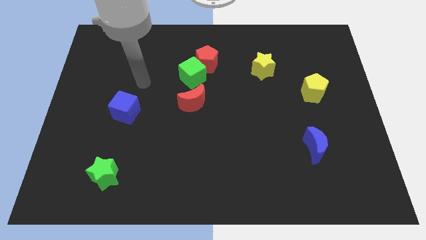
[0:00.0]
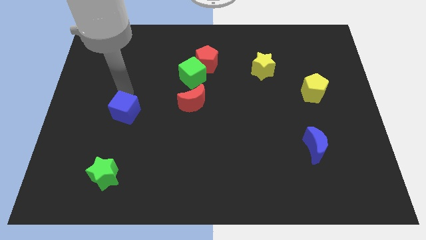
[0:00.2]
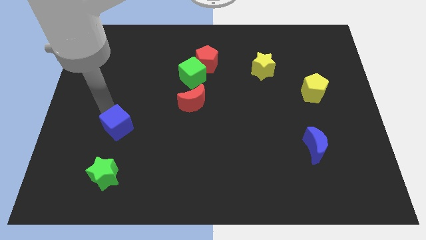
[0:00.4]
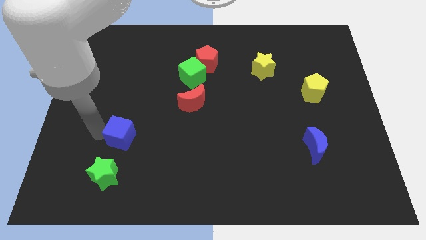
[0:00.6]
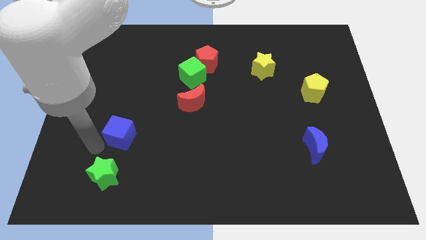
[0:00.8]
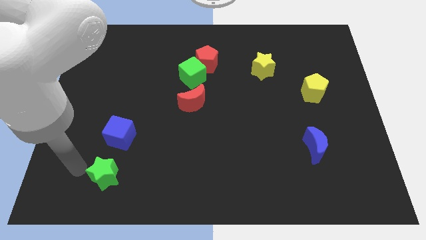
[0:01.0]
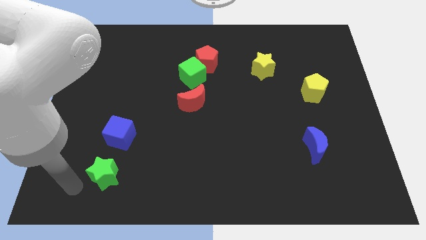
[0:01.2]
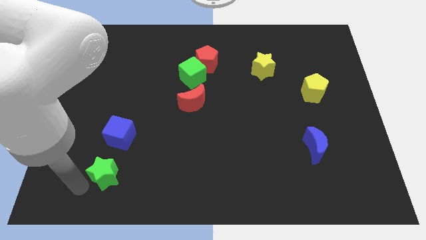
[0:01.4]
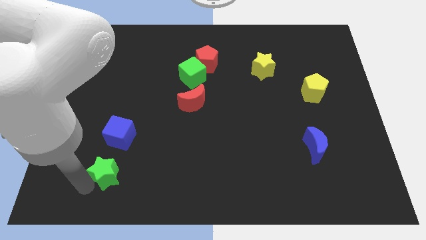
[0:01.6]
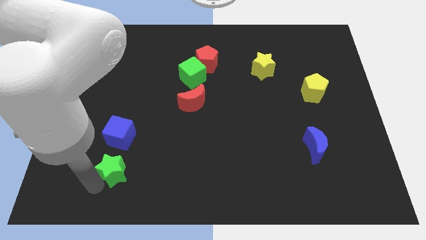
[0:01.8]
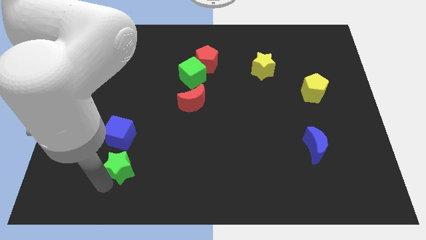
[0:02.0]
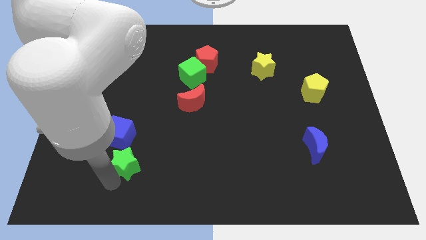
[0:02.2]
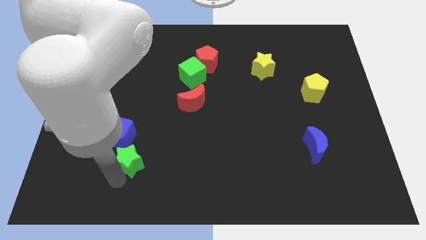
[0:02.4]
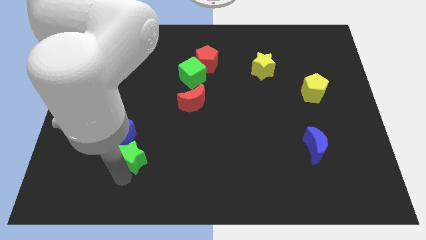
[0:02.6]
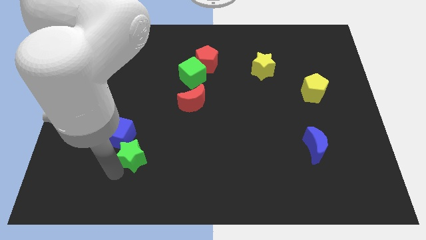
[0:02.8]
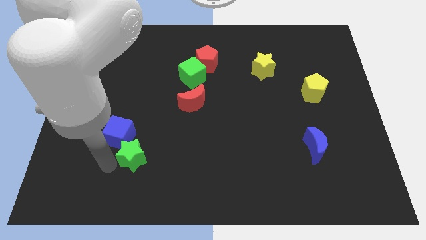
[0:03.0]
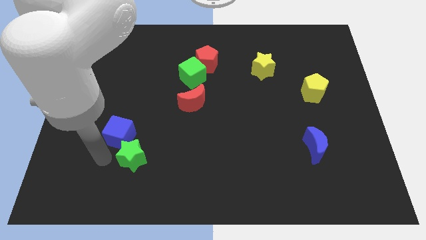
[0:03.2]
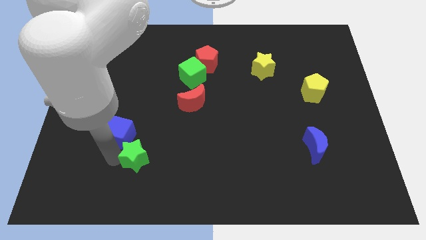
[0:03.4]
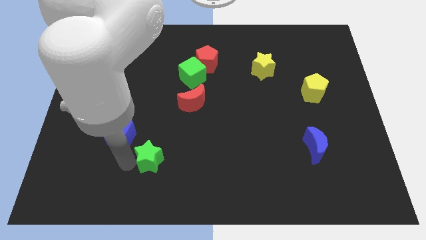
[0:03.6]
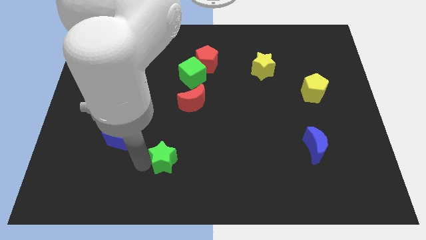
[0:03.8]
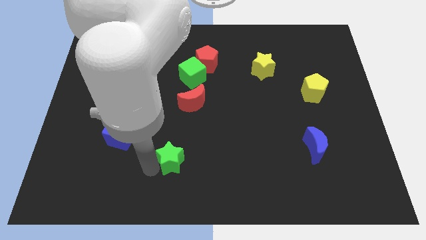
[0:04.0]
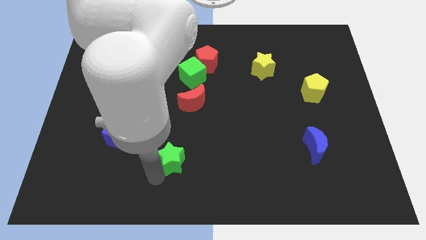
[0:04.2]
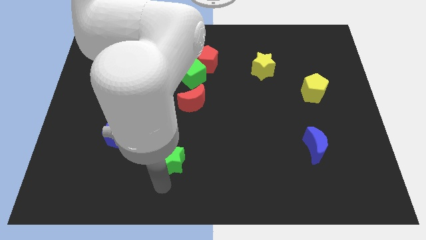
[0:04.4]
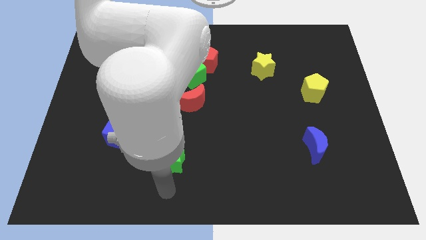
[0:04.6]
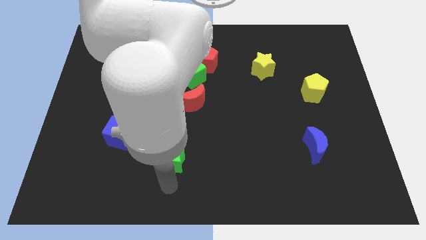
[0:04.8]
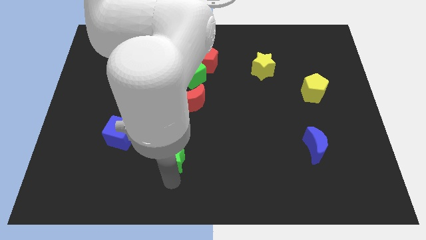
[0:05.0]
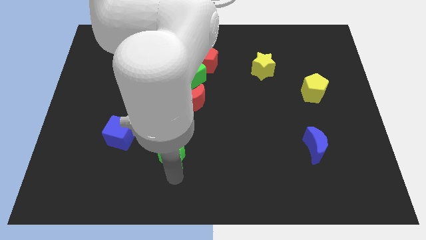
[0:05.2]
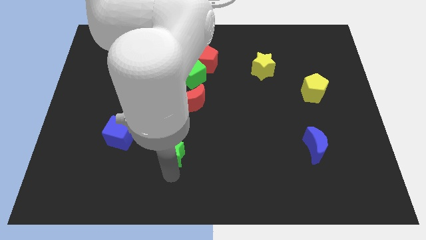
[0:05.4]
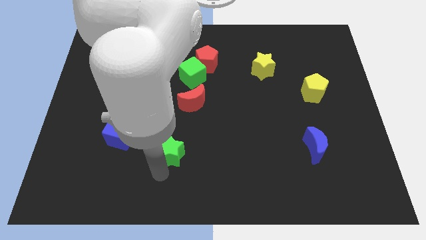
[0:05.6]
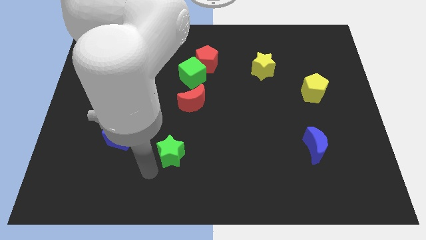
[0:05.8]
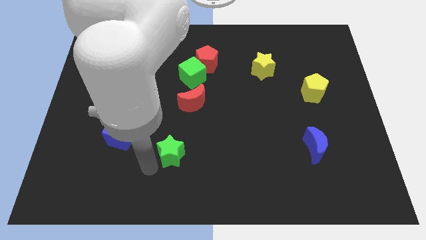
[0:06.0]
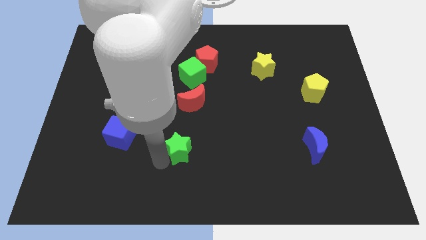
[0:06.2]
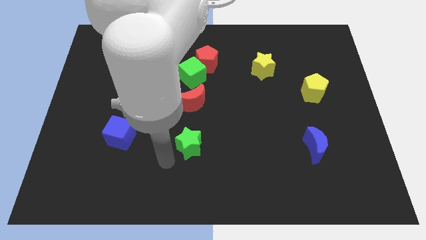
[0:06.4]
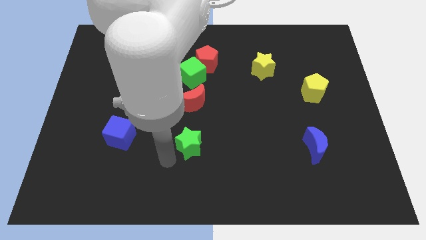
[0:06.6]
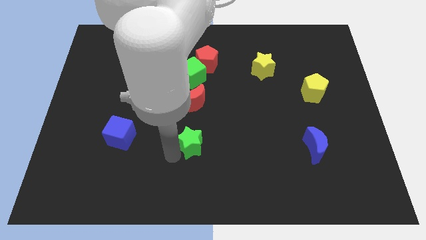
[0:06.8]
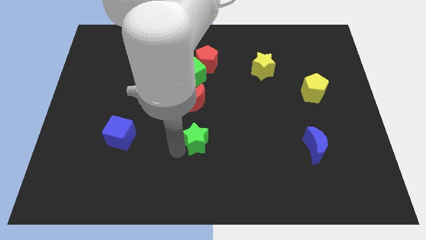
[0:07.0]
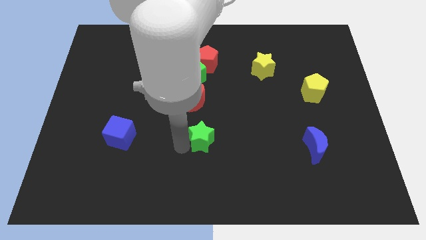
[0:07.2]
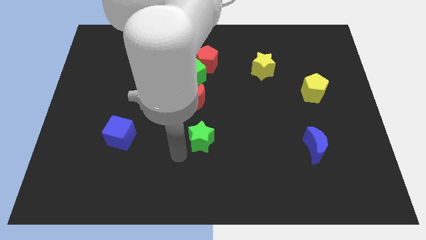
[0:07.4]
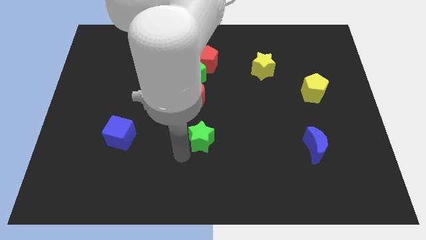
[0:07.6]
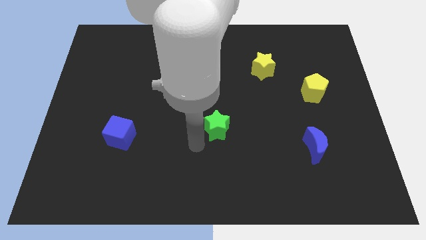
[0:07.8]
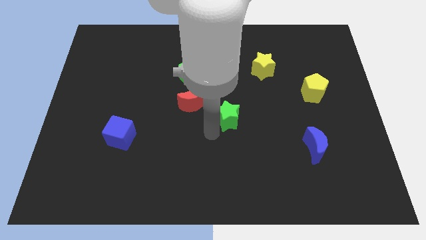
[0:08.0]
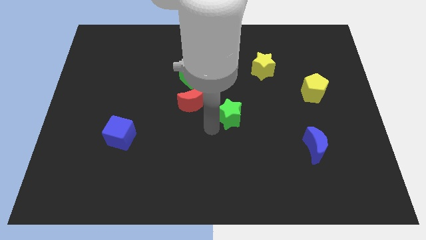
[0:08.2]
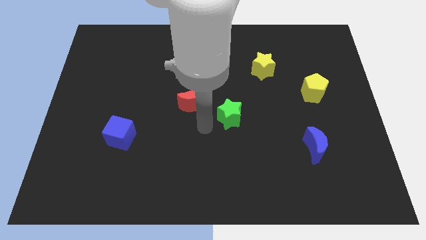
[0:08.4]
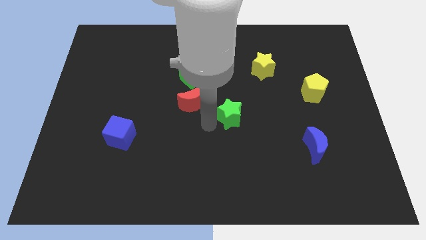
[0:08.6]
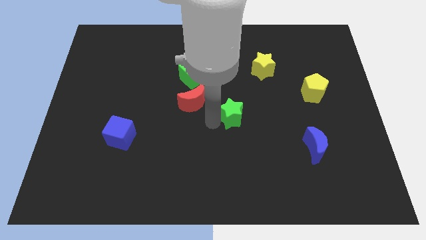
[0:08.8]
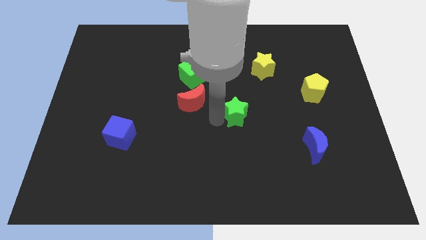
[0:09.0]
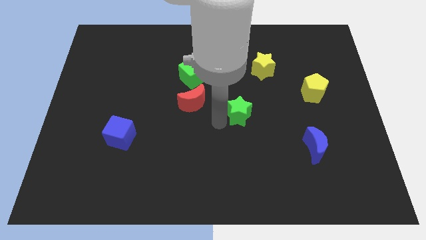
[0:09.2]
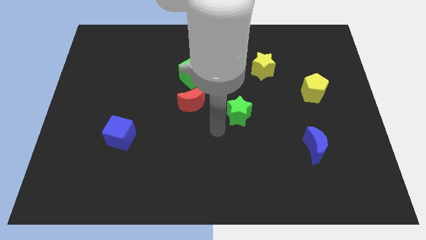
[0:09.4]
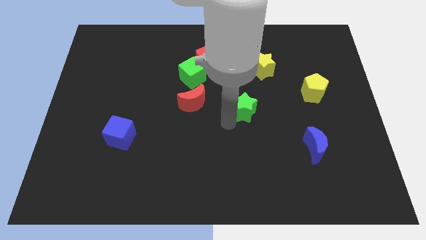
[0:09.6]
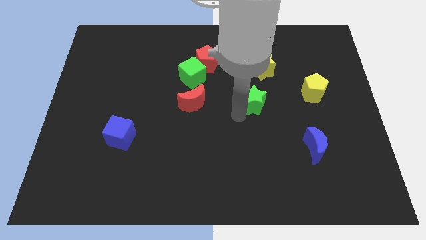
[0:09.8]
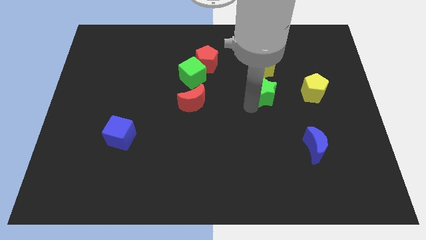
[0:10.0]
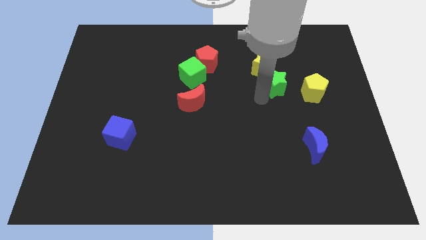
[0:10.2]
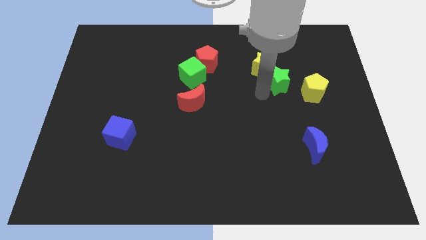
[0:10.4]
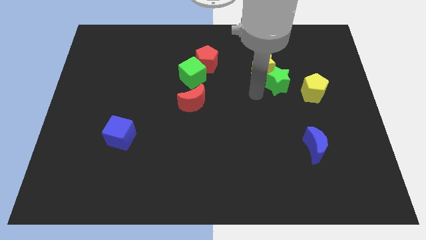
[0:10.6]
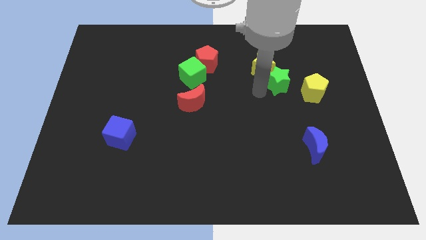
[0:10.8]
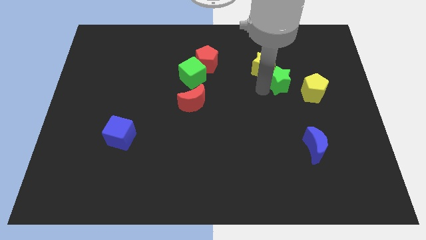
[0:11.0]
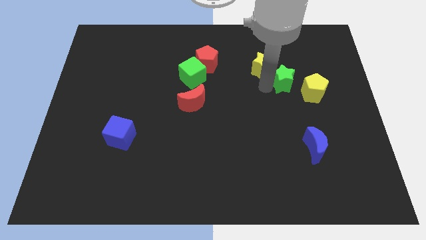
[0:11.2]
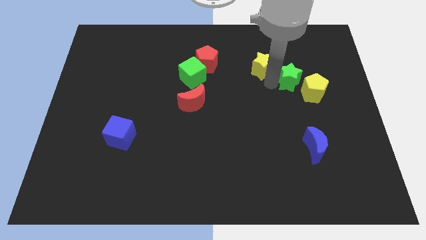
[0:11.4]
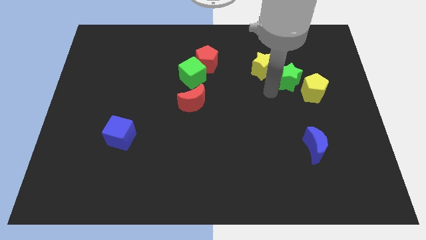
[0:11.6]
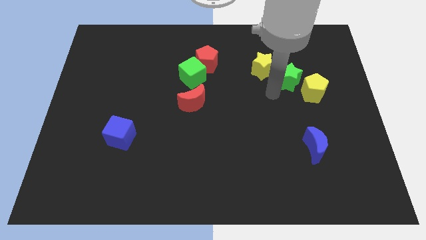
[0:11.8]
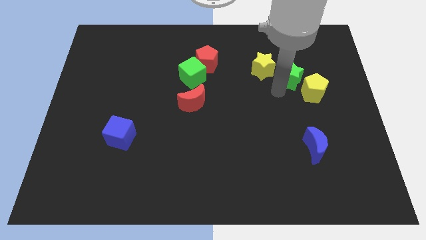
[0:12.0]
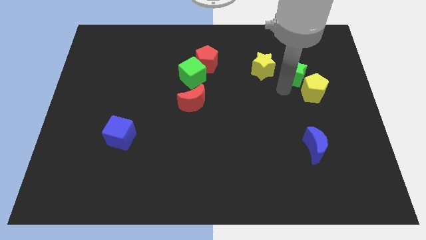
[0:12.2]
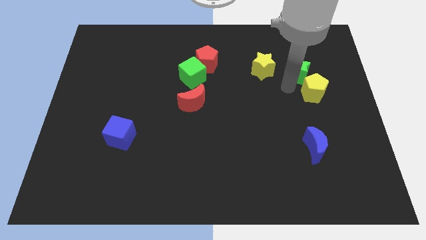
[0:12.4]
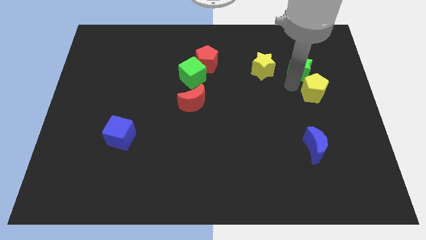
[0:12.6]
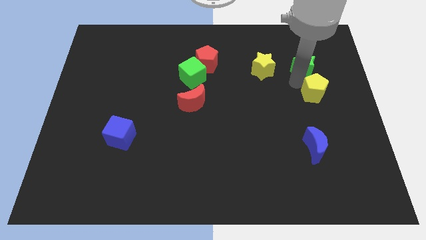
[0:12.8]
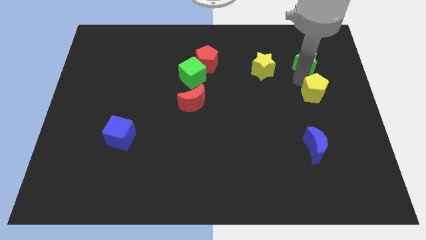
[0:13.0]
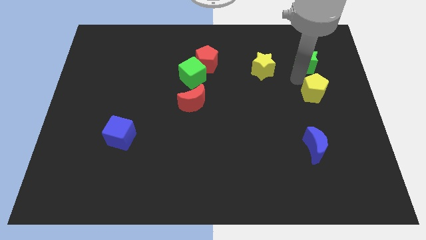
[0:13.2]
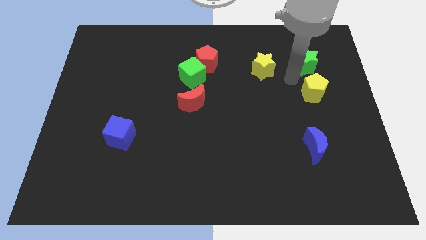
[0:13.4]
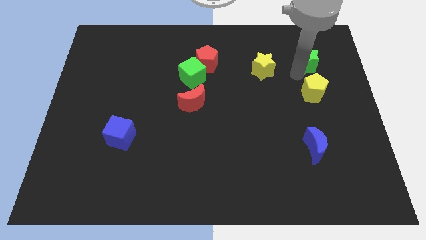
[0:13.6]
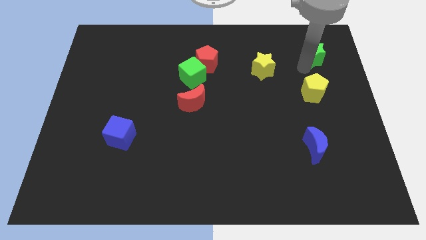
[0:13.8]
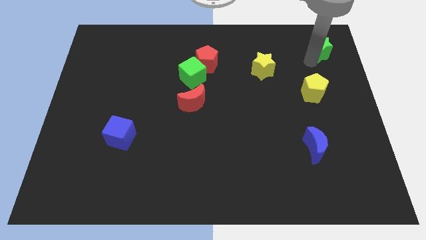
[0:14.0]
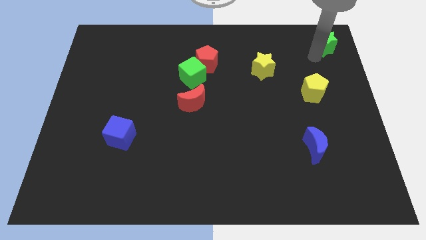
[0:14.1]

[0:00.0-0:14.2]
put the green star to the top right

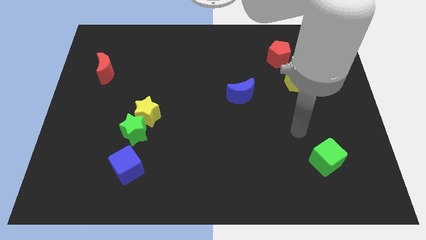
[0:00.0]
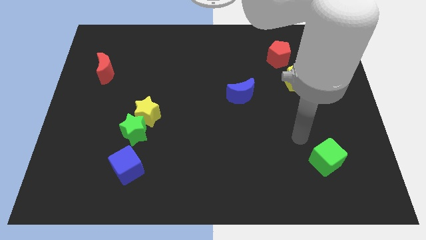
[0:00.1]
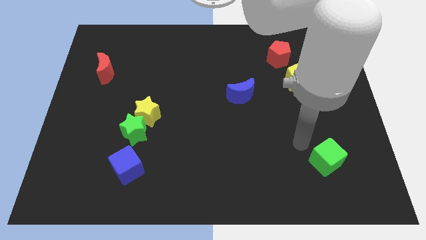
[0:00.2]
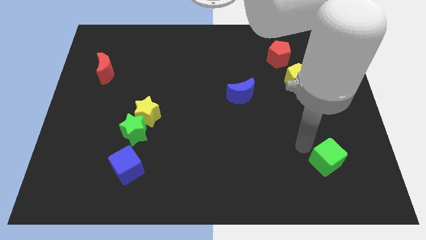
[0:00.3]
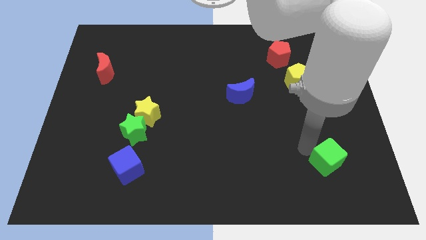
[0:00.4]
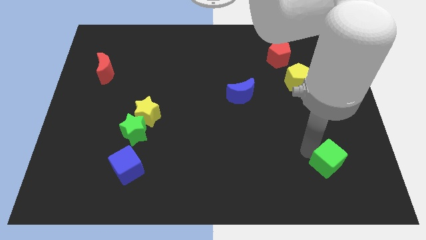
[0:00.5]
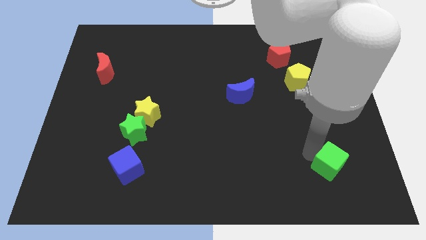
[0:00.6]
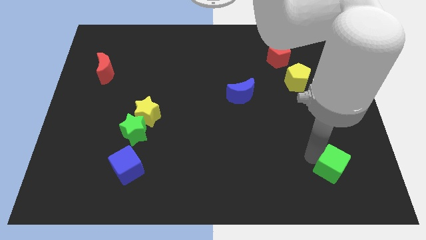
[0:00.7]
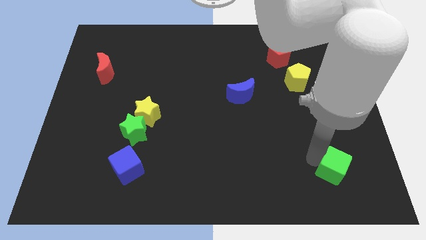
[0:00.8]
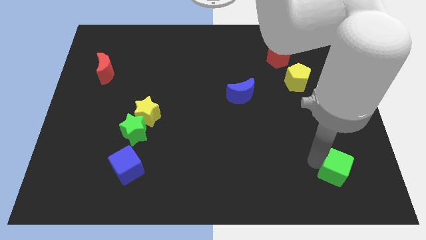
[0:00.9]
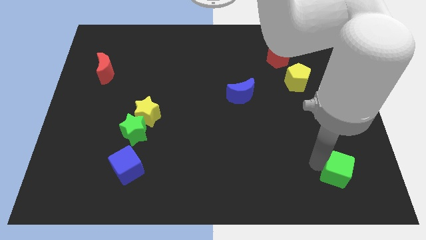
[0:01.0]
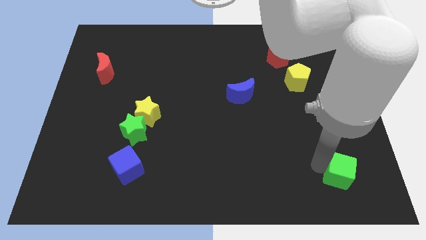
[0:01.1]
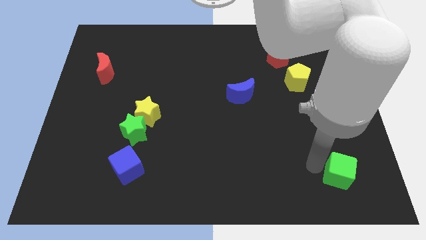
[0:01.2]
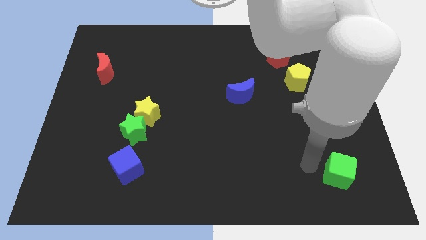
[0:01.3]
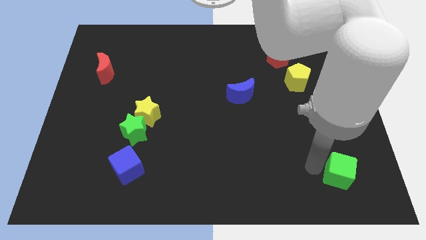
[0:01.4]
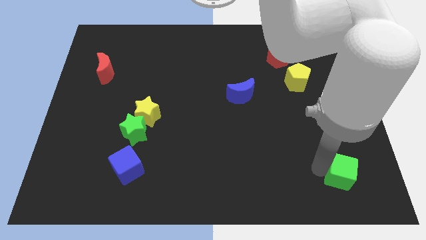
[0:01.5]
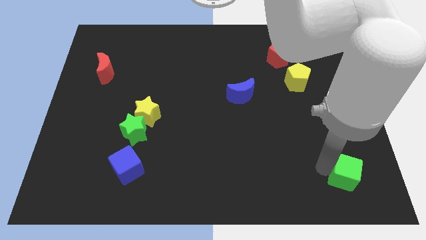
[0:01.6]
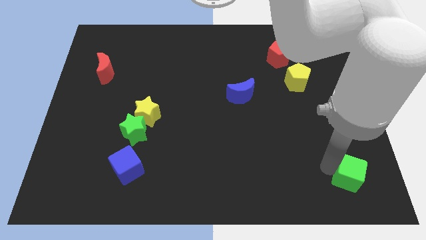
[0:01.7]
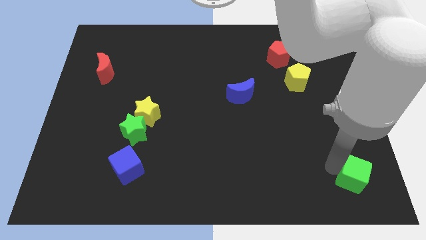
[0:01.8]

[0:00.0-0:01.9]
slide the green cube to the lower right corner
